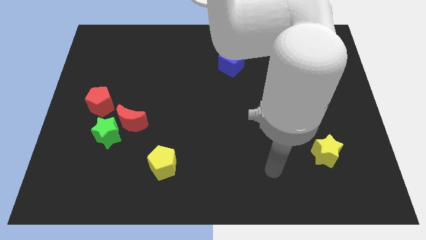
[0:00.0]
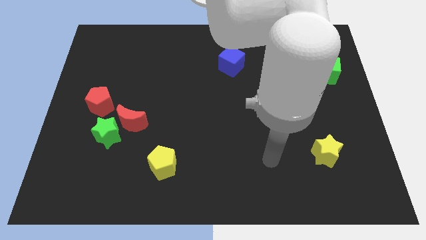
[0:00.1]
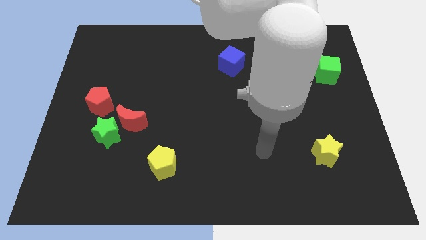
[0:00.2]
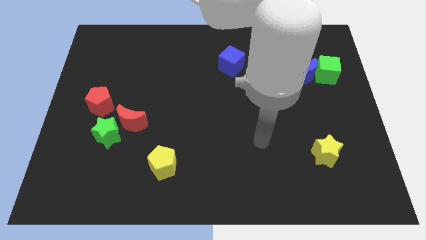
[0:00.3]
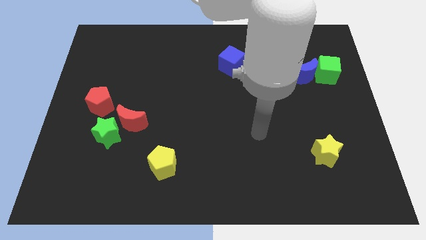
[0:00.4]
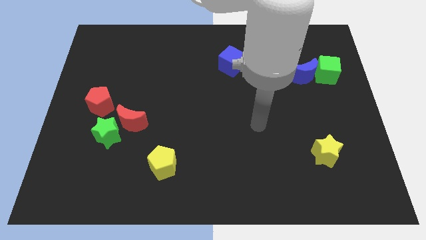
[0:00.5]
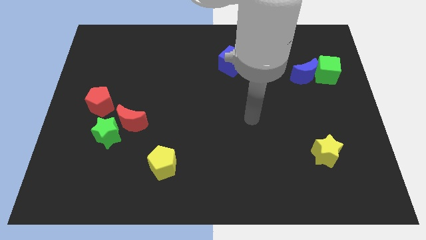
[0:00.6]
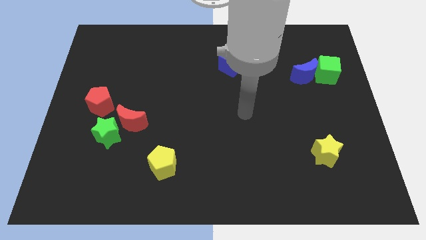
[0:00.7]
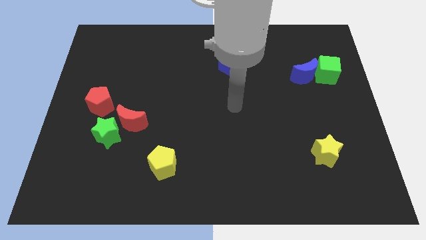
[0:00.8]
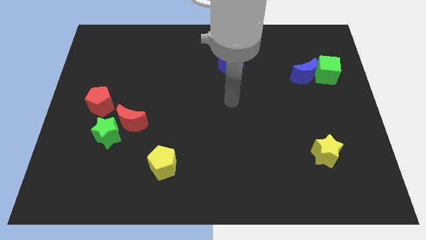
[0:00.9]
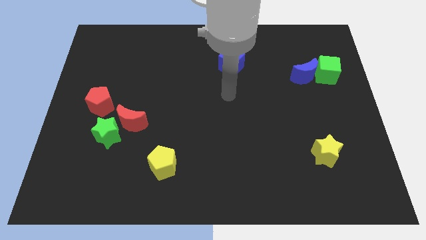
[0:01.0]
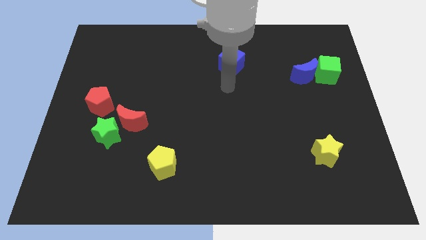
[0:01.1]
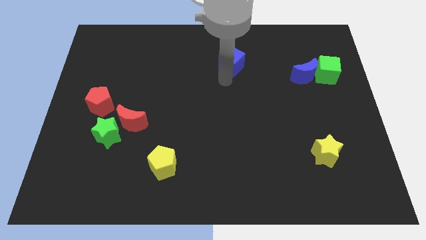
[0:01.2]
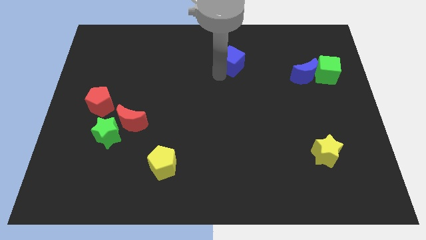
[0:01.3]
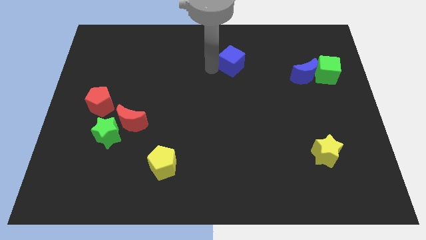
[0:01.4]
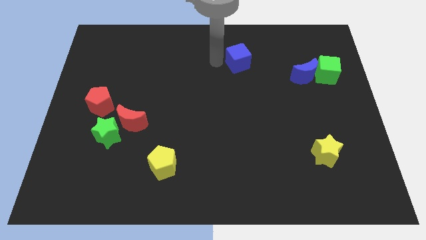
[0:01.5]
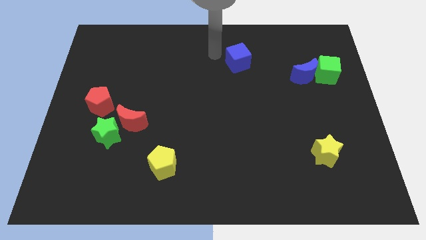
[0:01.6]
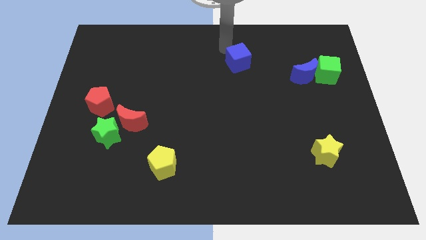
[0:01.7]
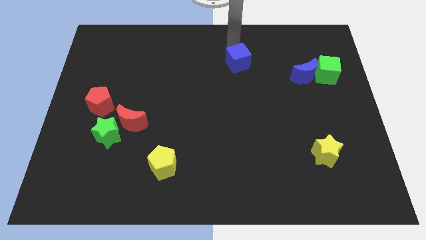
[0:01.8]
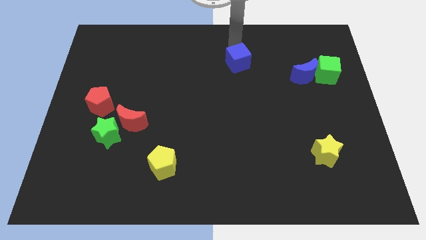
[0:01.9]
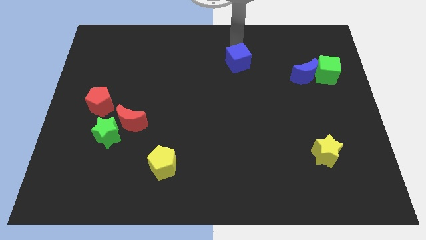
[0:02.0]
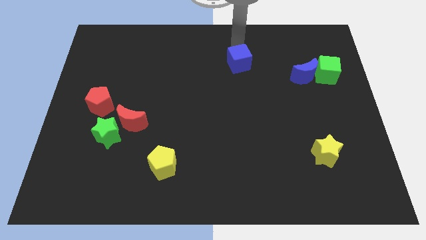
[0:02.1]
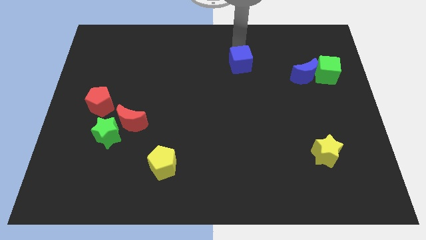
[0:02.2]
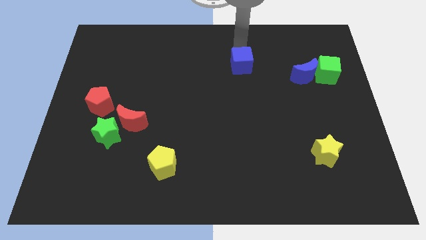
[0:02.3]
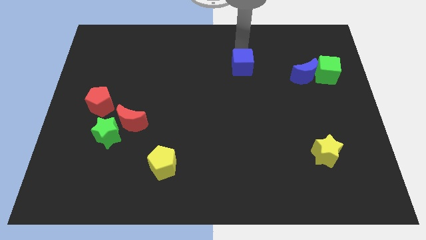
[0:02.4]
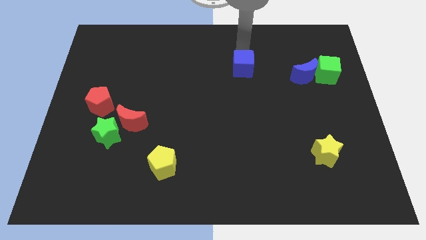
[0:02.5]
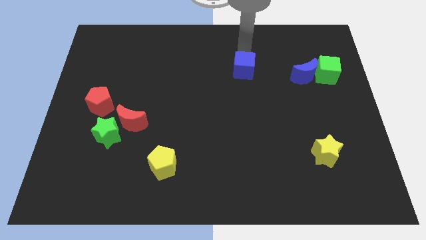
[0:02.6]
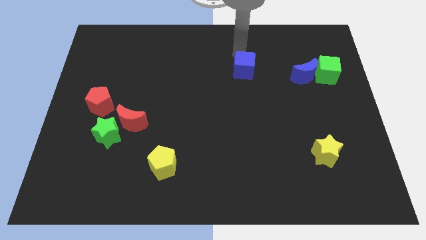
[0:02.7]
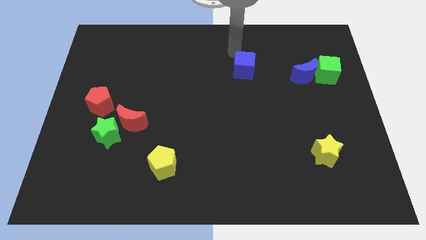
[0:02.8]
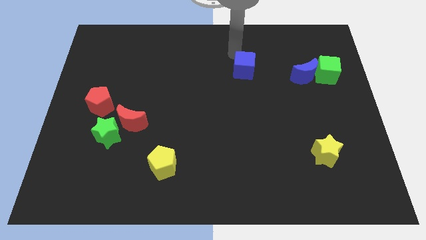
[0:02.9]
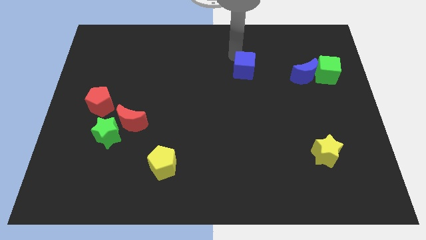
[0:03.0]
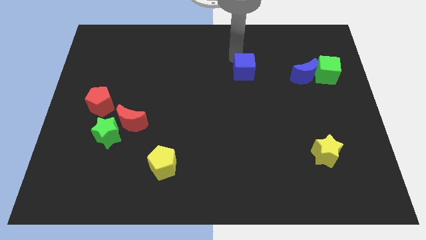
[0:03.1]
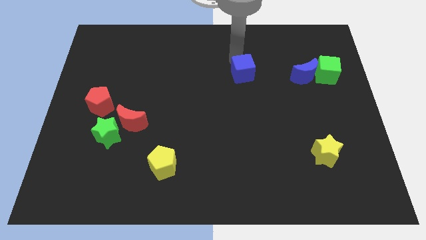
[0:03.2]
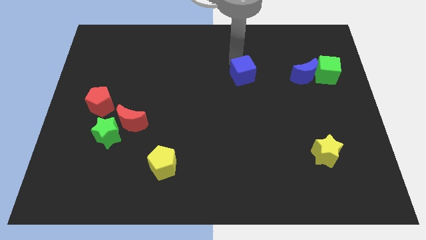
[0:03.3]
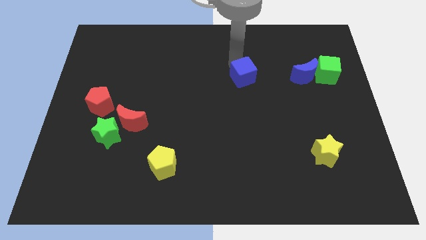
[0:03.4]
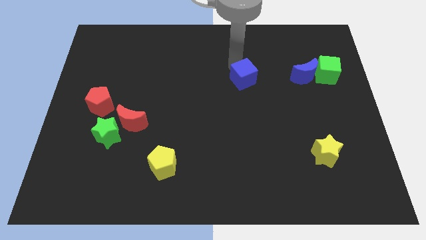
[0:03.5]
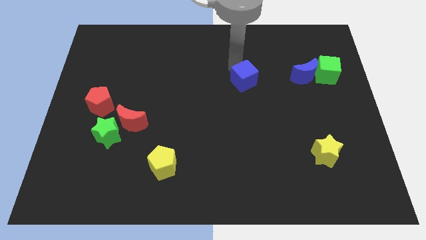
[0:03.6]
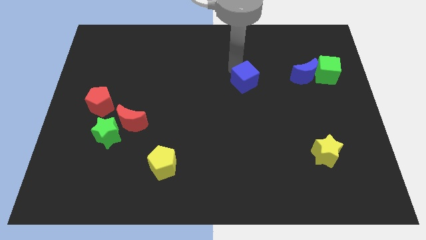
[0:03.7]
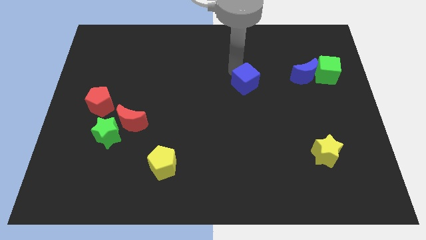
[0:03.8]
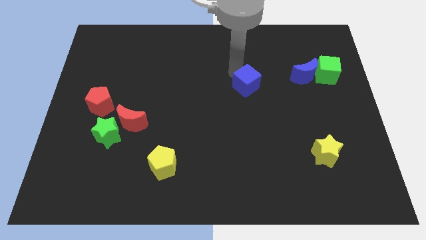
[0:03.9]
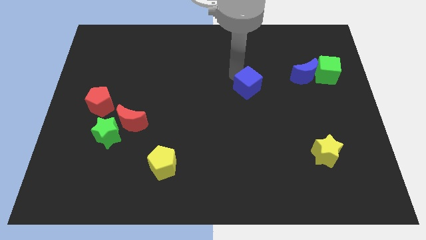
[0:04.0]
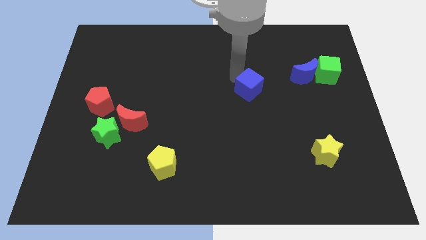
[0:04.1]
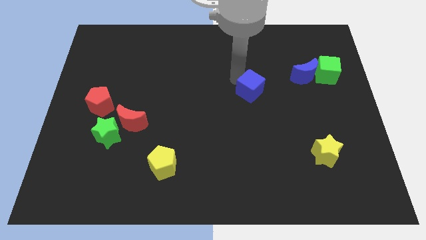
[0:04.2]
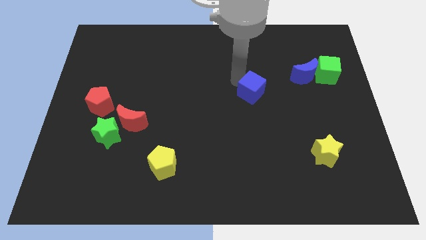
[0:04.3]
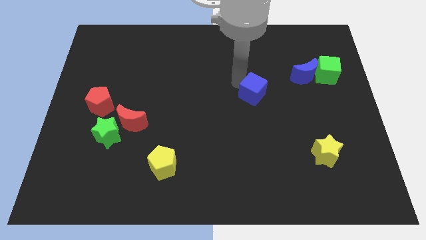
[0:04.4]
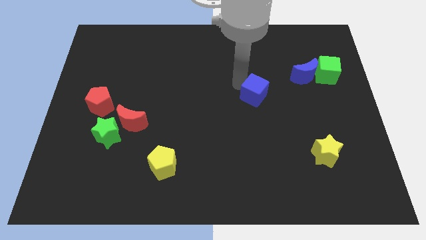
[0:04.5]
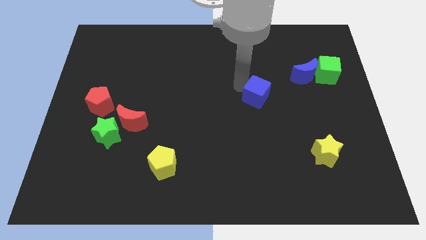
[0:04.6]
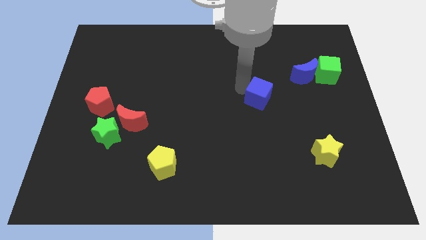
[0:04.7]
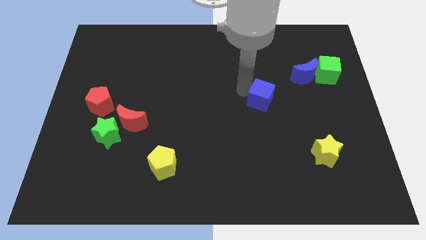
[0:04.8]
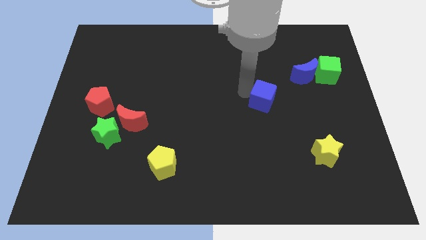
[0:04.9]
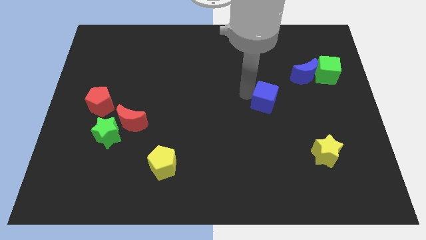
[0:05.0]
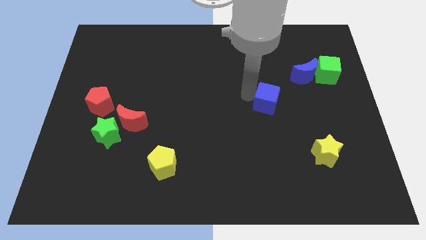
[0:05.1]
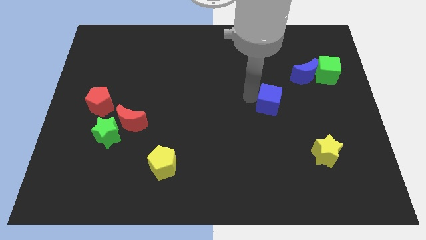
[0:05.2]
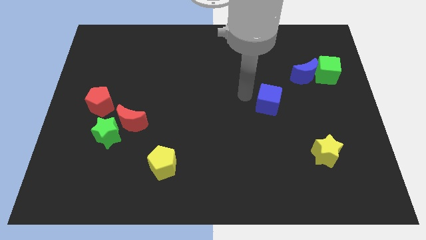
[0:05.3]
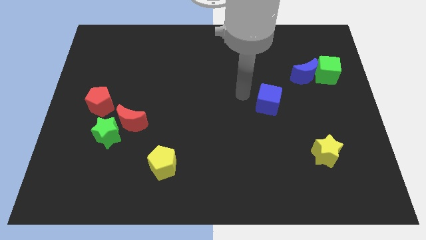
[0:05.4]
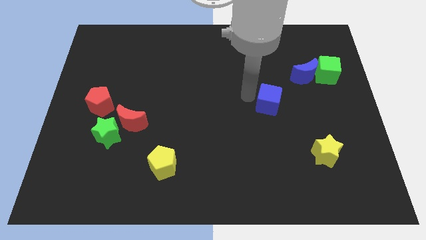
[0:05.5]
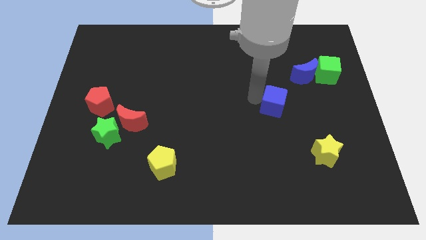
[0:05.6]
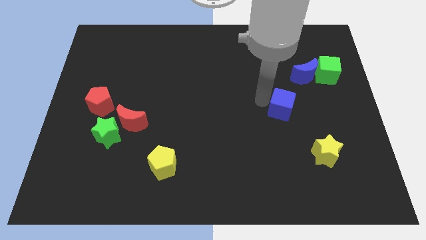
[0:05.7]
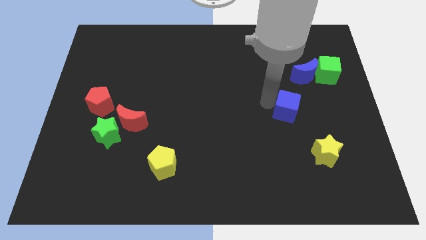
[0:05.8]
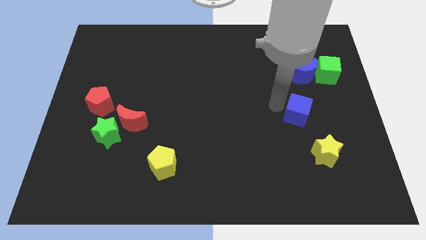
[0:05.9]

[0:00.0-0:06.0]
push the blue cube downwards and to the right

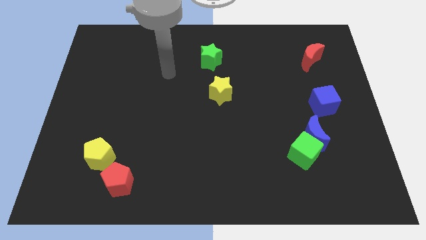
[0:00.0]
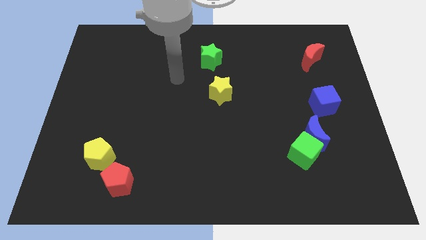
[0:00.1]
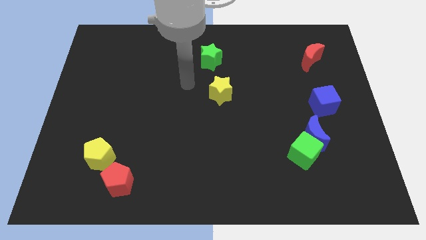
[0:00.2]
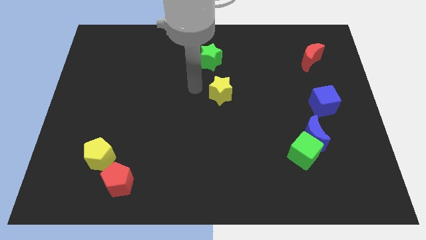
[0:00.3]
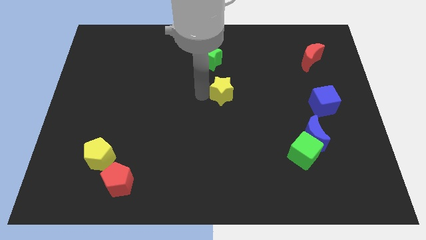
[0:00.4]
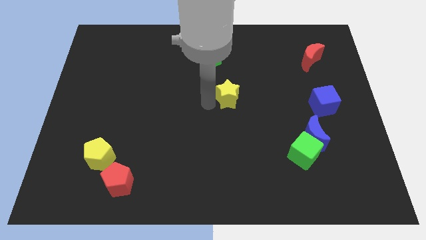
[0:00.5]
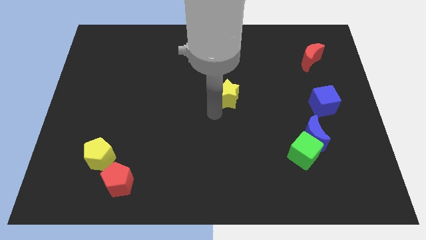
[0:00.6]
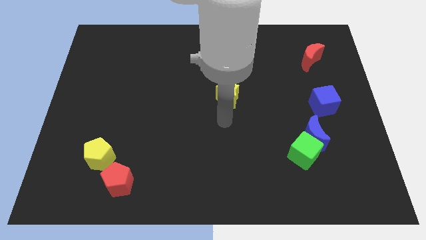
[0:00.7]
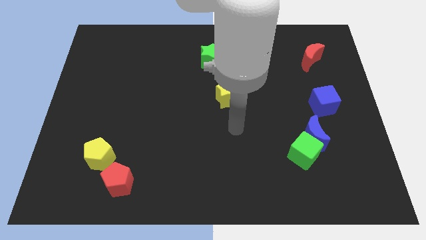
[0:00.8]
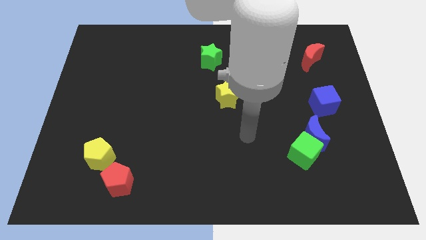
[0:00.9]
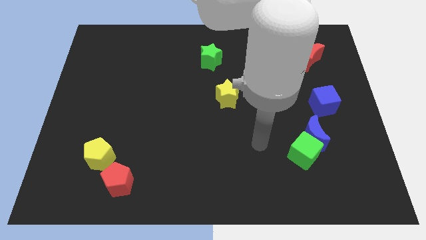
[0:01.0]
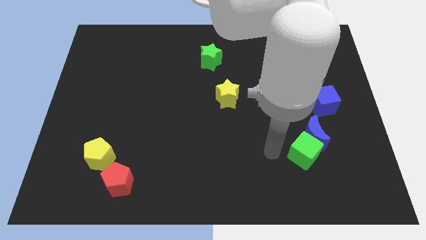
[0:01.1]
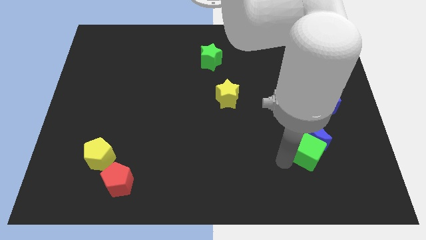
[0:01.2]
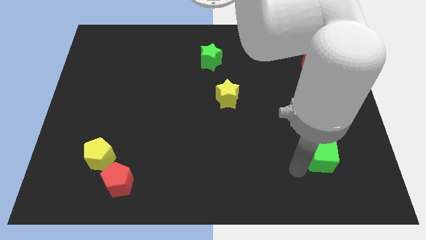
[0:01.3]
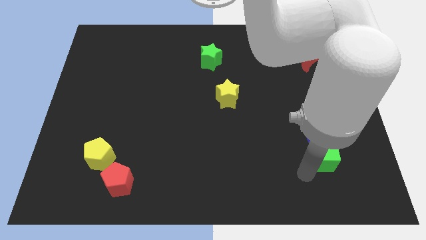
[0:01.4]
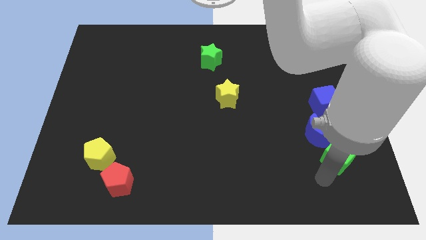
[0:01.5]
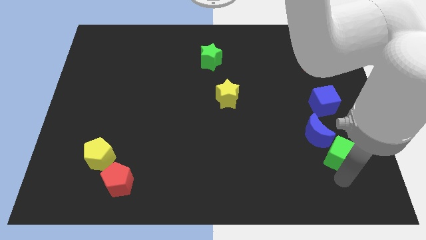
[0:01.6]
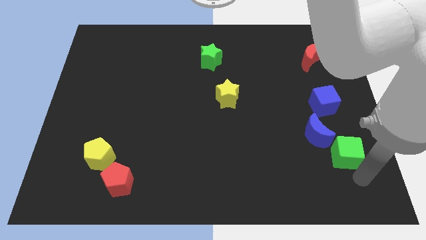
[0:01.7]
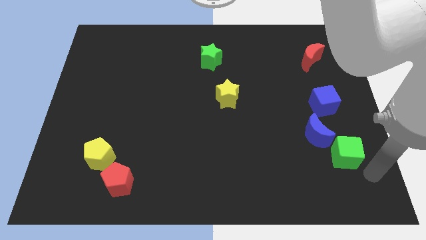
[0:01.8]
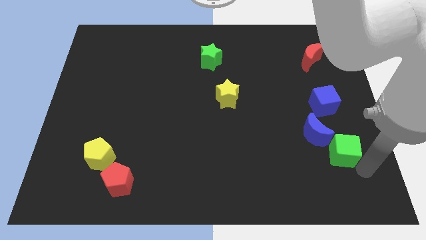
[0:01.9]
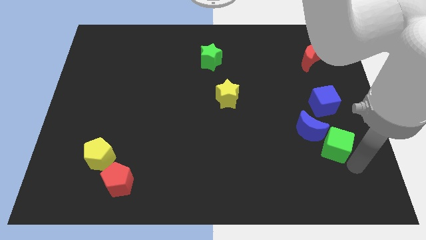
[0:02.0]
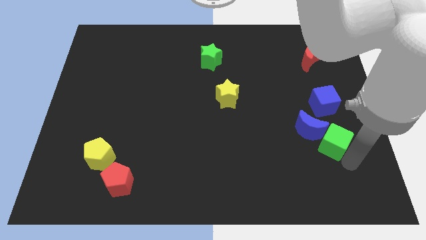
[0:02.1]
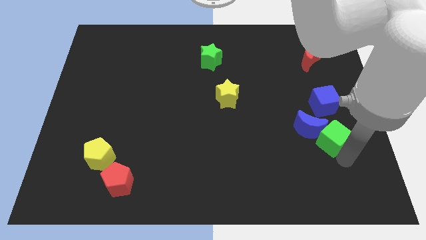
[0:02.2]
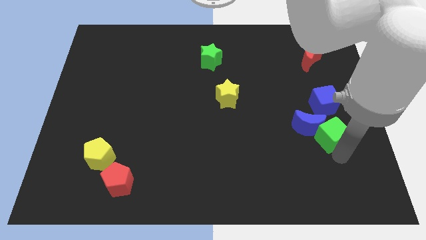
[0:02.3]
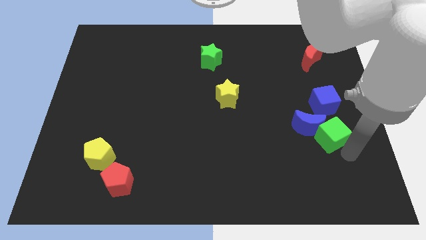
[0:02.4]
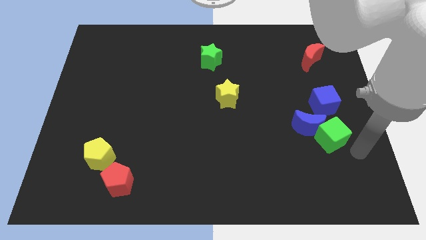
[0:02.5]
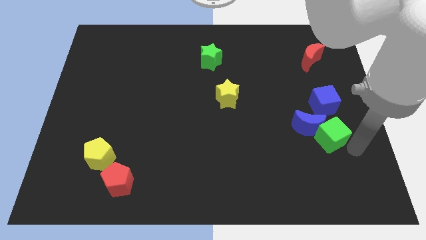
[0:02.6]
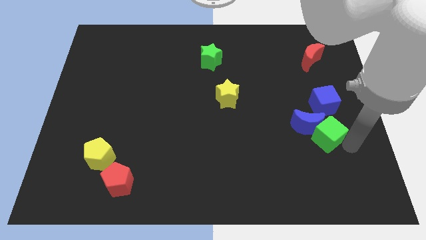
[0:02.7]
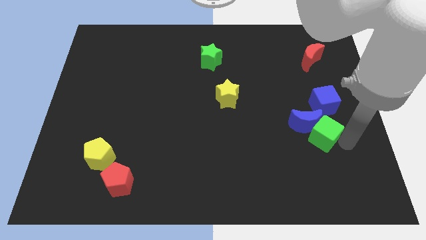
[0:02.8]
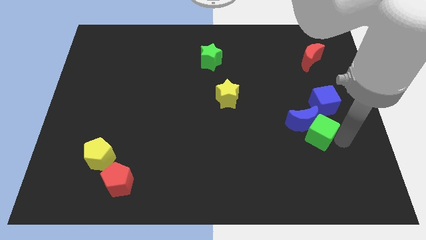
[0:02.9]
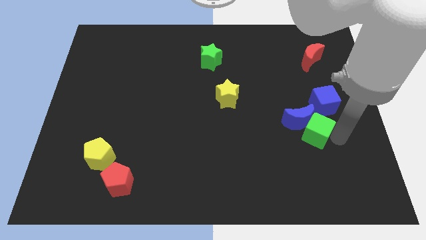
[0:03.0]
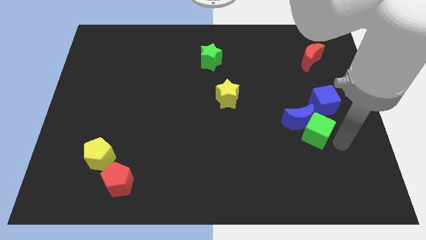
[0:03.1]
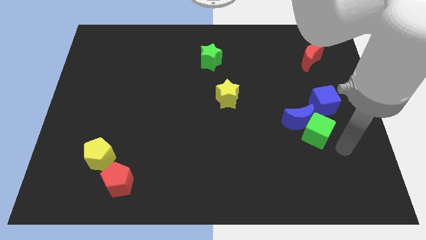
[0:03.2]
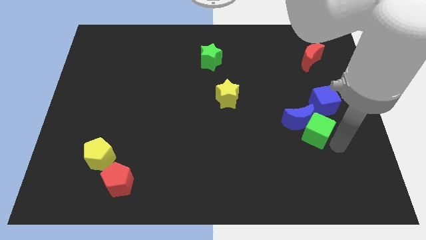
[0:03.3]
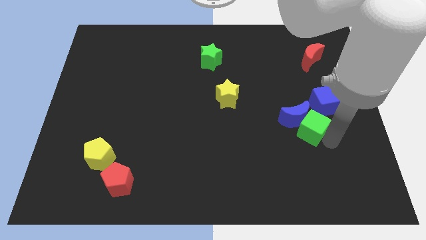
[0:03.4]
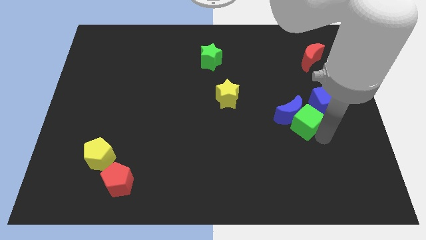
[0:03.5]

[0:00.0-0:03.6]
slide the green cube slightly up
